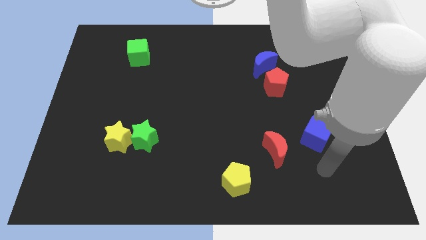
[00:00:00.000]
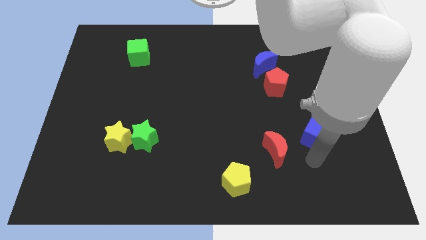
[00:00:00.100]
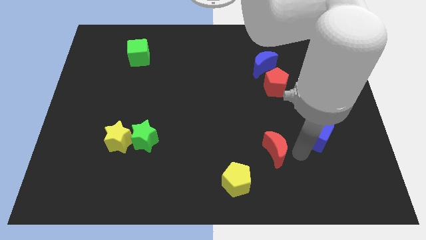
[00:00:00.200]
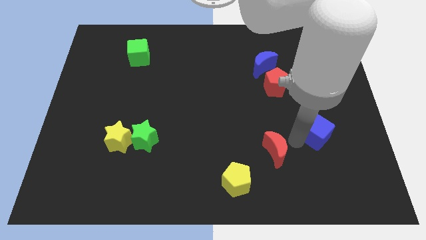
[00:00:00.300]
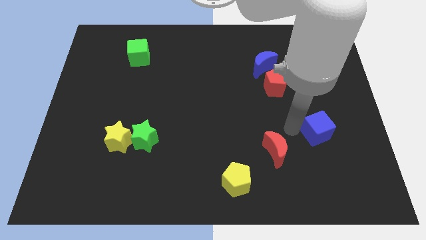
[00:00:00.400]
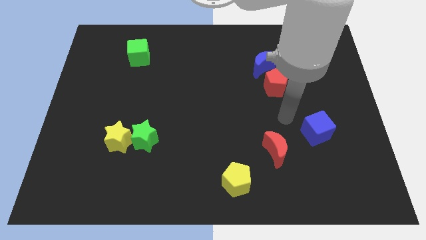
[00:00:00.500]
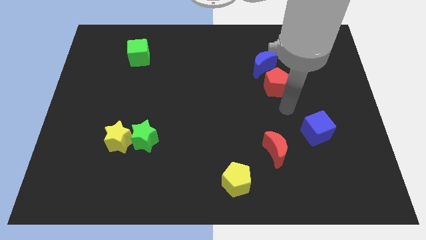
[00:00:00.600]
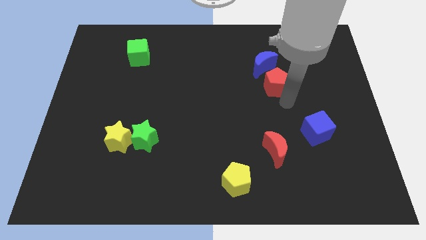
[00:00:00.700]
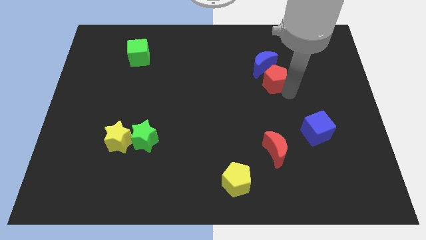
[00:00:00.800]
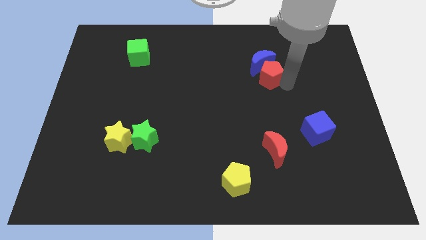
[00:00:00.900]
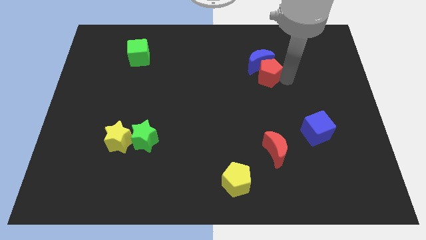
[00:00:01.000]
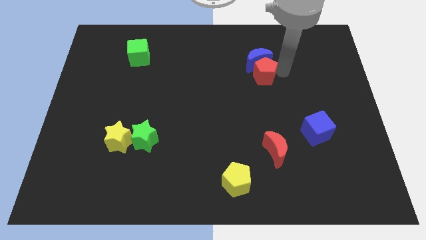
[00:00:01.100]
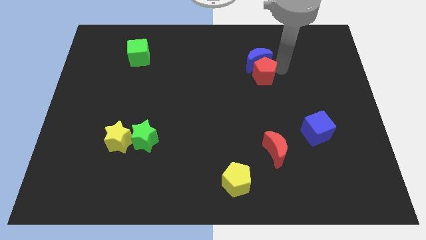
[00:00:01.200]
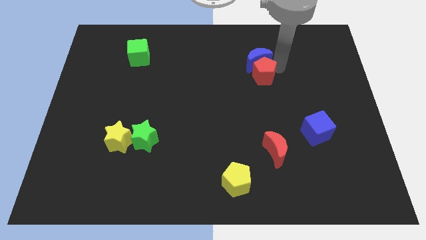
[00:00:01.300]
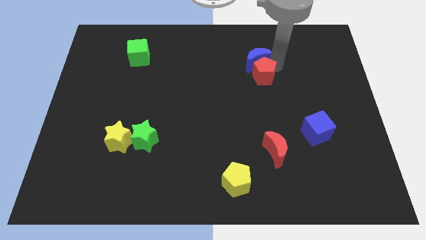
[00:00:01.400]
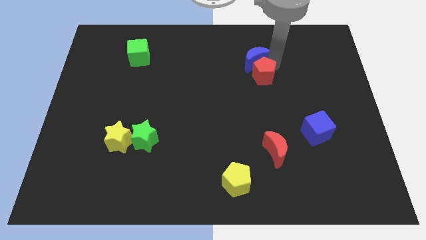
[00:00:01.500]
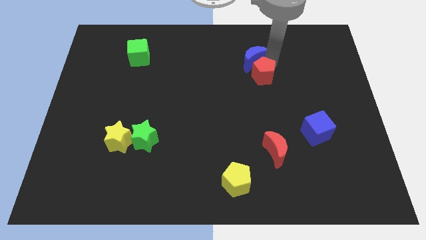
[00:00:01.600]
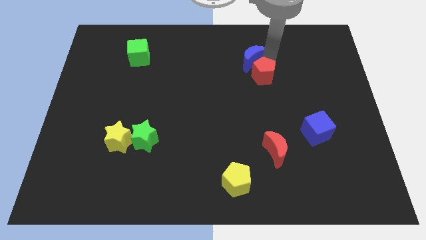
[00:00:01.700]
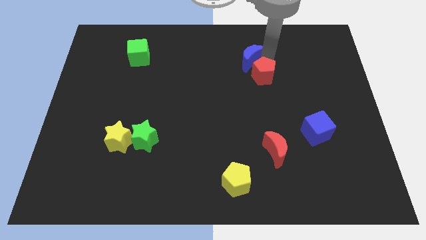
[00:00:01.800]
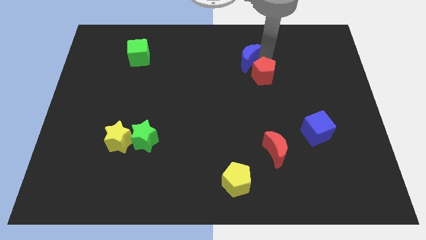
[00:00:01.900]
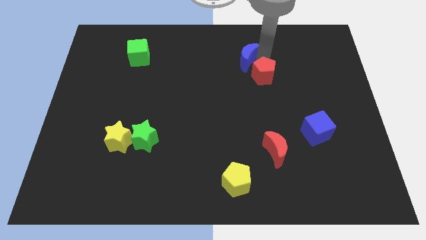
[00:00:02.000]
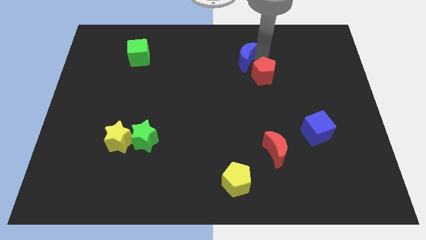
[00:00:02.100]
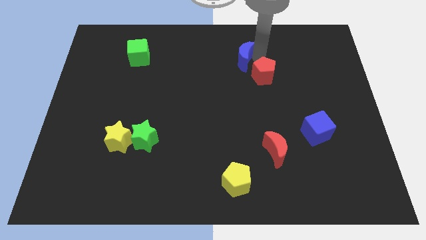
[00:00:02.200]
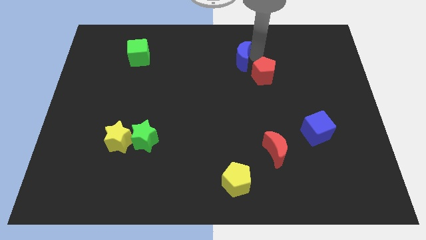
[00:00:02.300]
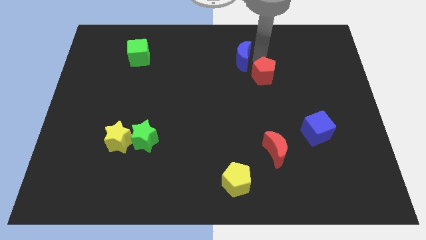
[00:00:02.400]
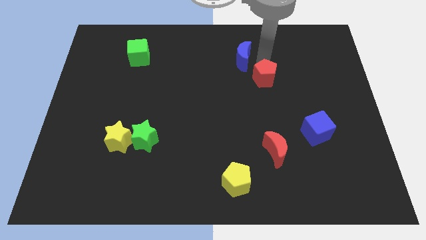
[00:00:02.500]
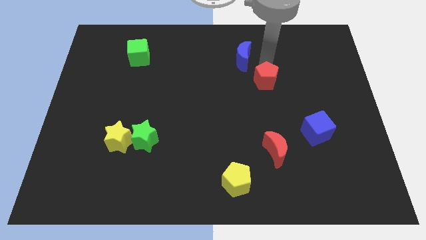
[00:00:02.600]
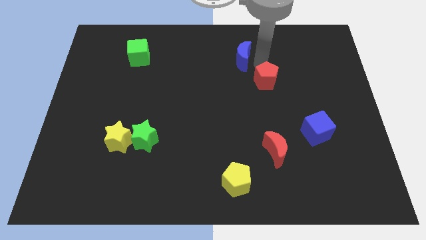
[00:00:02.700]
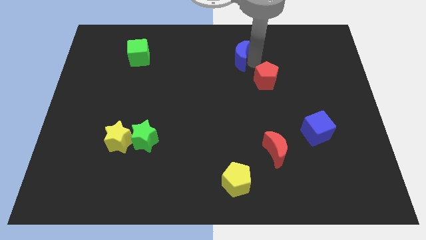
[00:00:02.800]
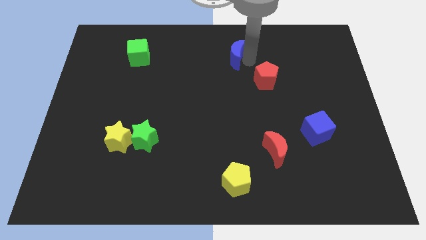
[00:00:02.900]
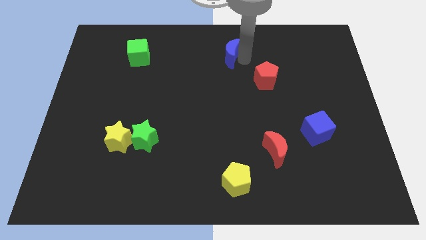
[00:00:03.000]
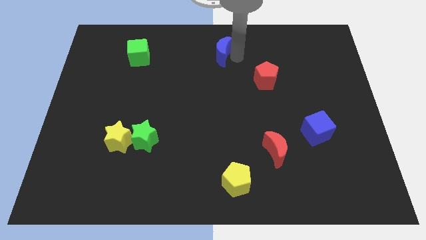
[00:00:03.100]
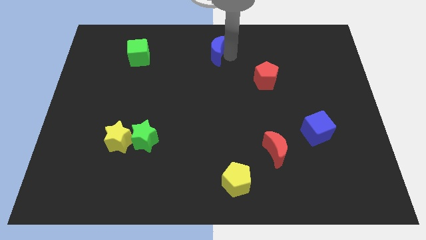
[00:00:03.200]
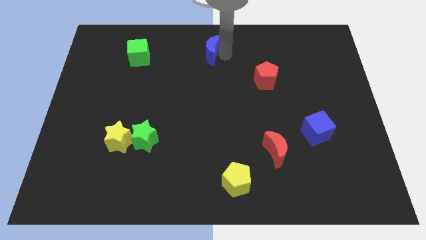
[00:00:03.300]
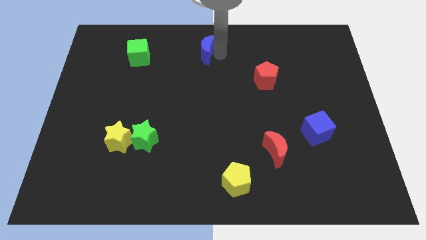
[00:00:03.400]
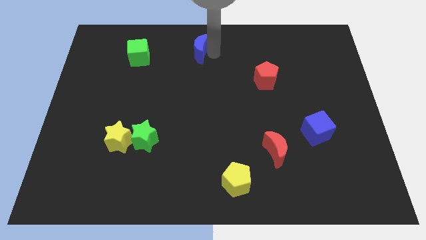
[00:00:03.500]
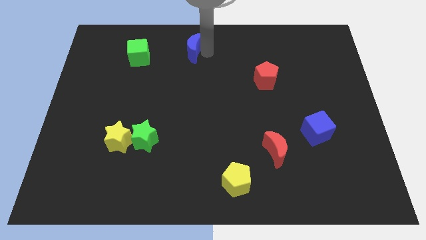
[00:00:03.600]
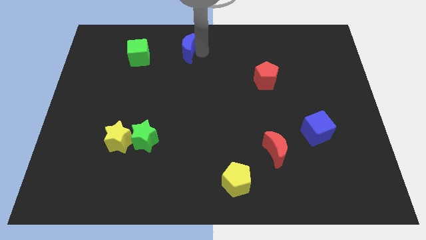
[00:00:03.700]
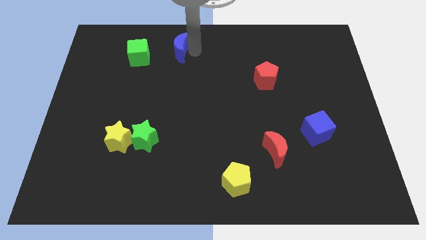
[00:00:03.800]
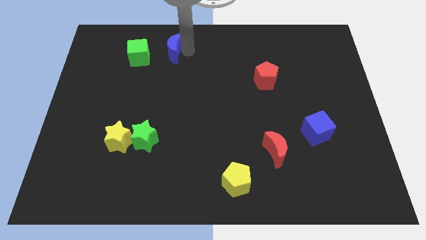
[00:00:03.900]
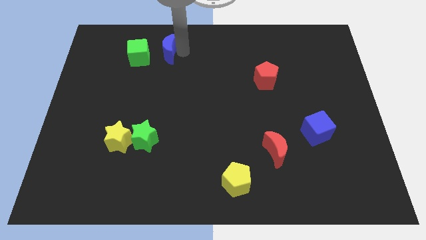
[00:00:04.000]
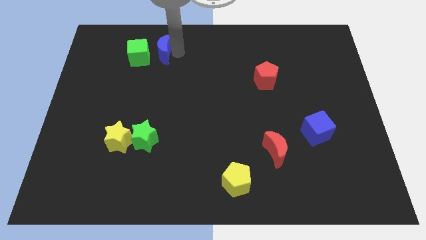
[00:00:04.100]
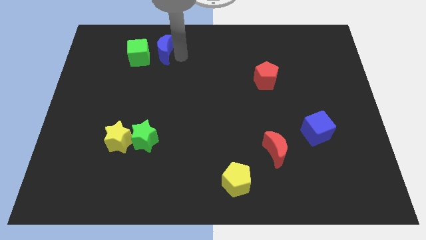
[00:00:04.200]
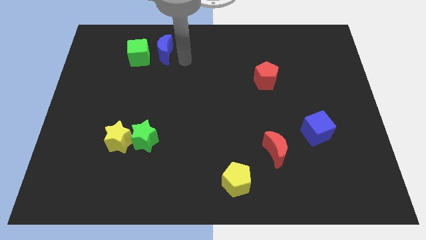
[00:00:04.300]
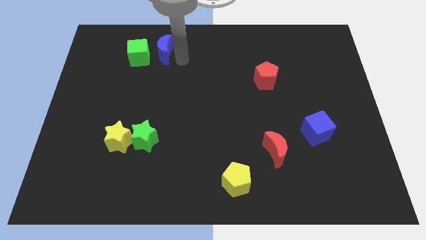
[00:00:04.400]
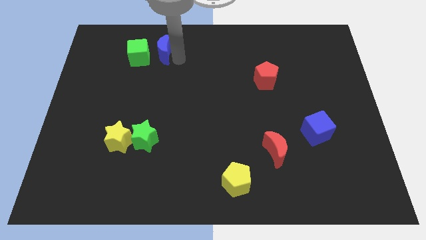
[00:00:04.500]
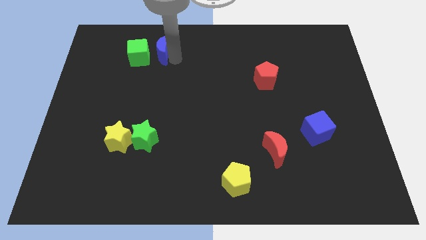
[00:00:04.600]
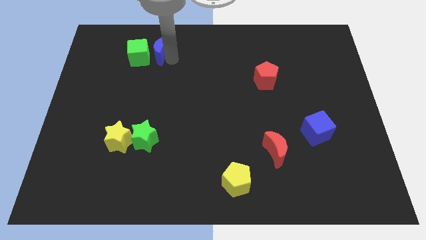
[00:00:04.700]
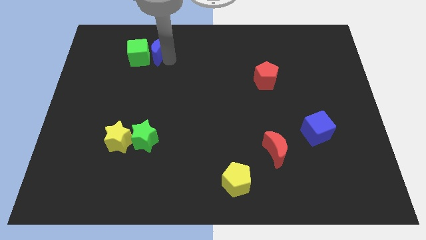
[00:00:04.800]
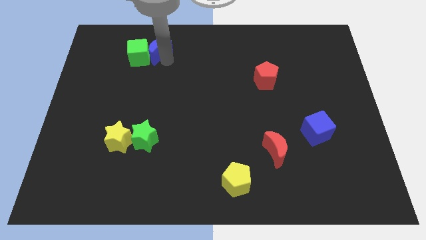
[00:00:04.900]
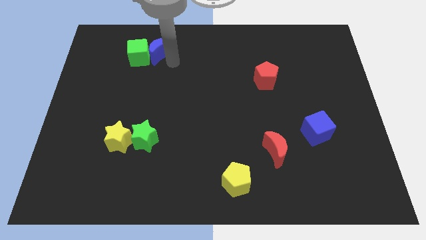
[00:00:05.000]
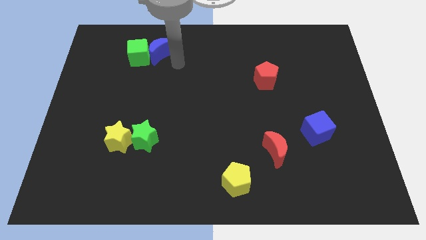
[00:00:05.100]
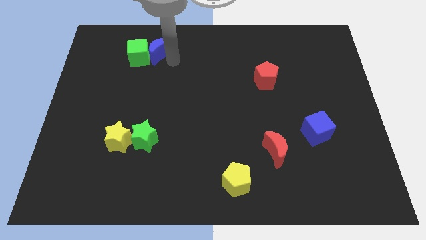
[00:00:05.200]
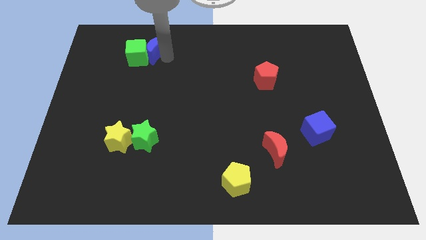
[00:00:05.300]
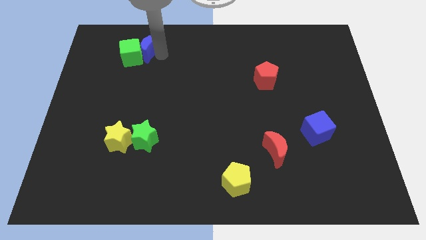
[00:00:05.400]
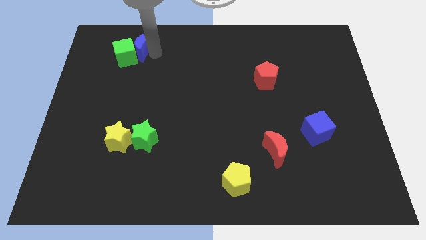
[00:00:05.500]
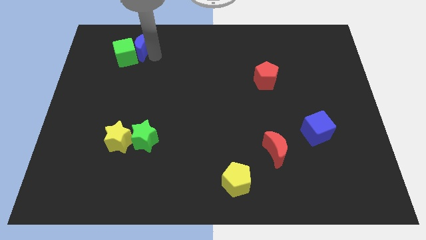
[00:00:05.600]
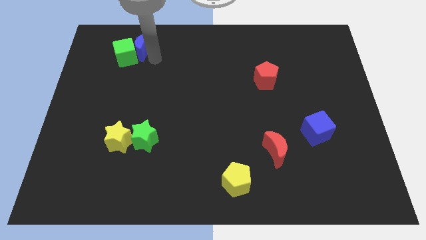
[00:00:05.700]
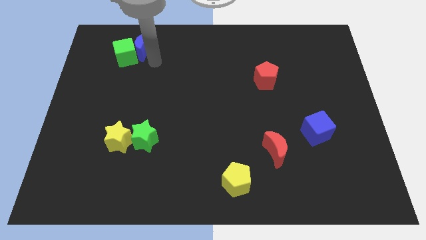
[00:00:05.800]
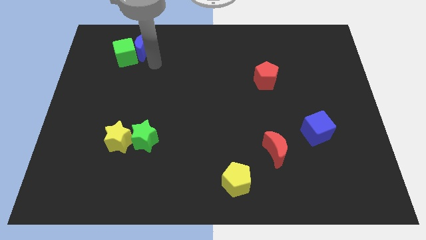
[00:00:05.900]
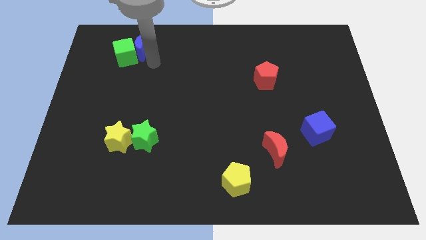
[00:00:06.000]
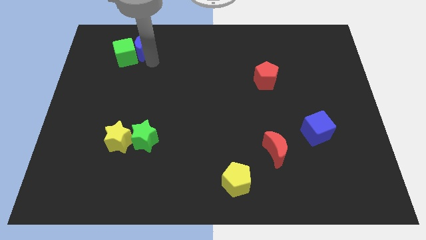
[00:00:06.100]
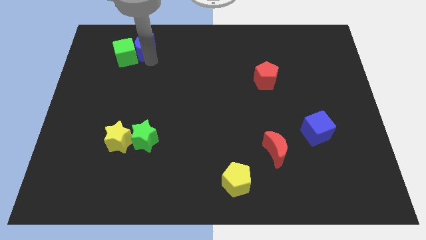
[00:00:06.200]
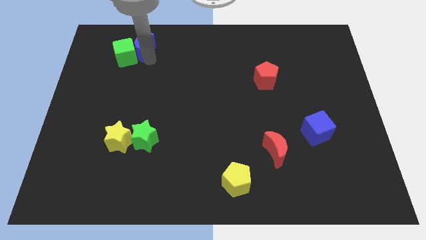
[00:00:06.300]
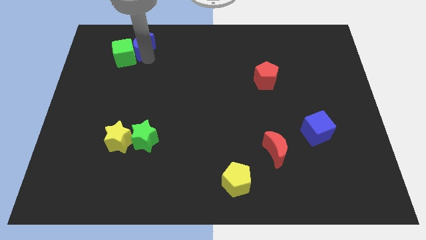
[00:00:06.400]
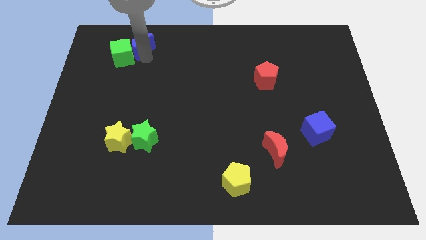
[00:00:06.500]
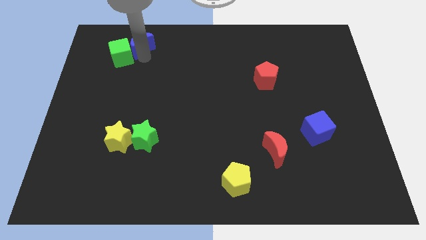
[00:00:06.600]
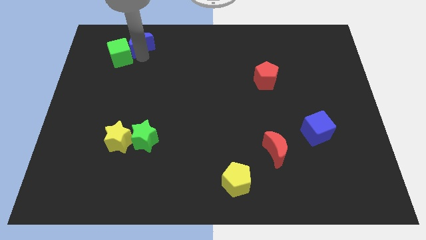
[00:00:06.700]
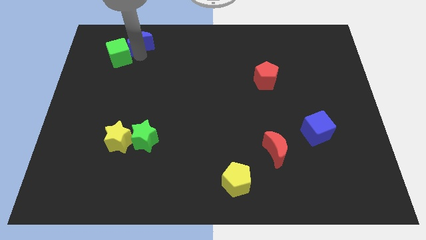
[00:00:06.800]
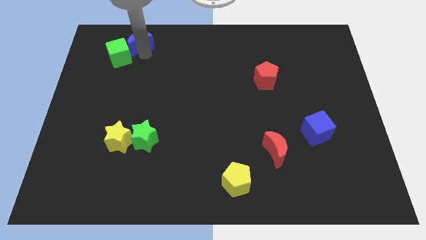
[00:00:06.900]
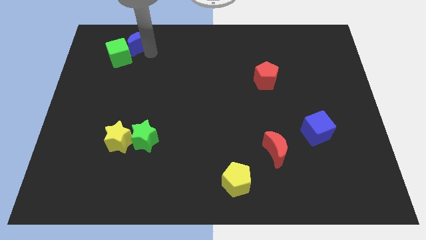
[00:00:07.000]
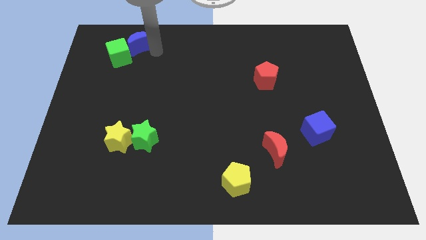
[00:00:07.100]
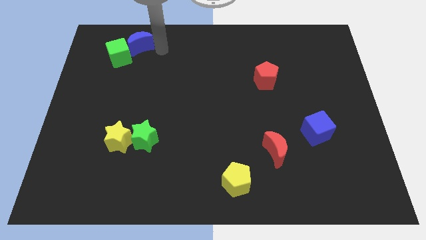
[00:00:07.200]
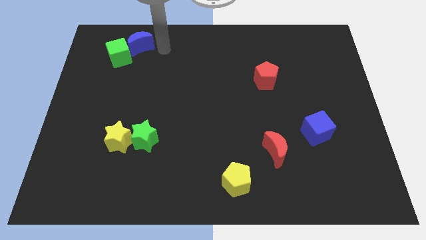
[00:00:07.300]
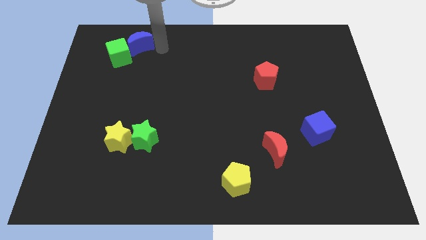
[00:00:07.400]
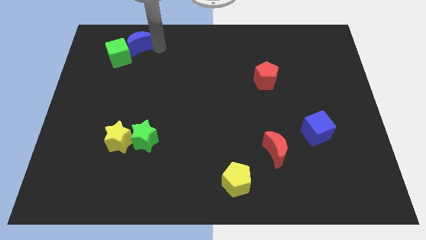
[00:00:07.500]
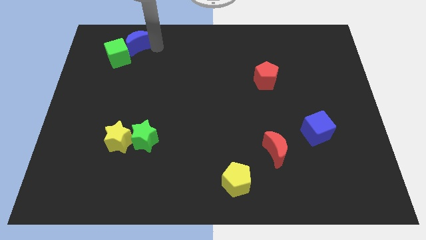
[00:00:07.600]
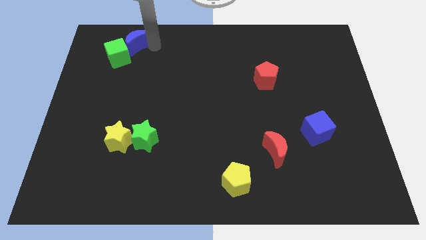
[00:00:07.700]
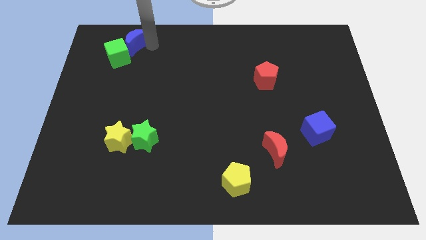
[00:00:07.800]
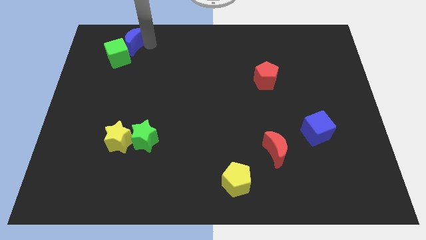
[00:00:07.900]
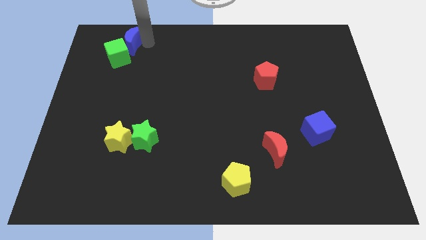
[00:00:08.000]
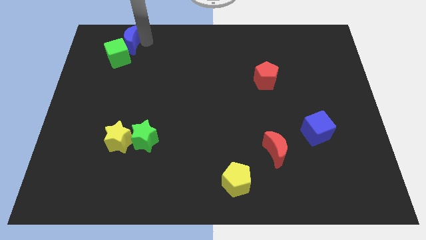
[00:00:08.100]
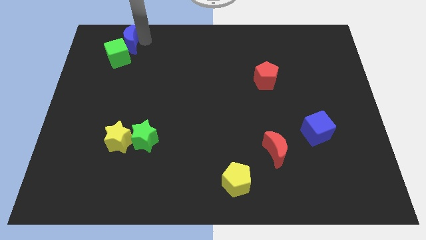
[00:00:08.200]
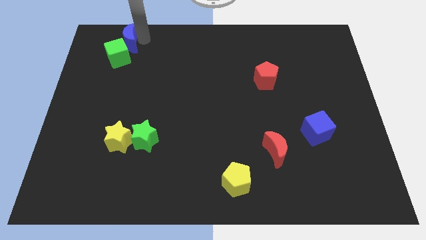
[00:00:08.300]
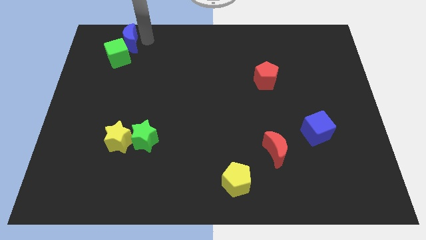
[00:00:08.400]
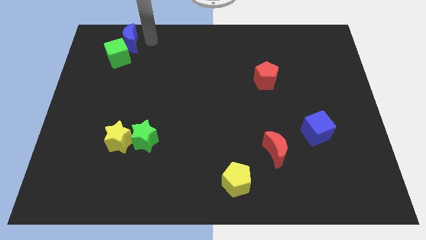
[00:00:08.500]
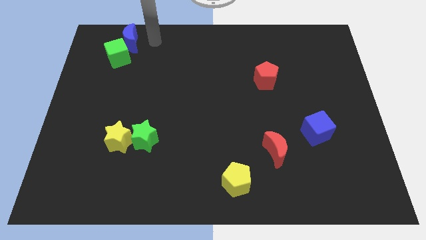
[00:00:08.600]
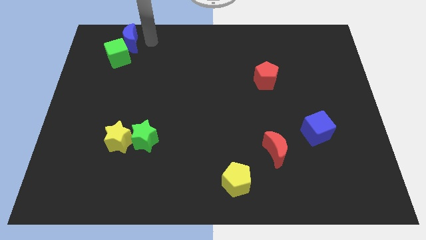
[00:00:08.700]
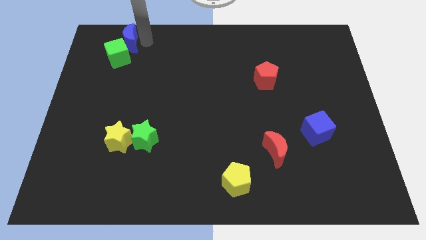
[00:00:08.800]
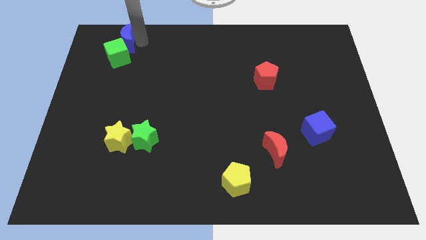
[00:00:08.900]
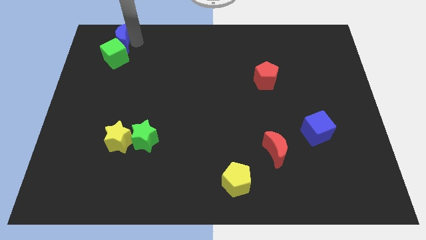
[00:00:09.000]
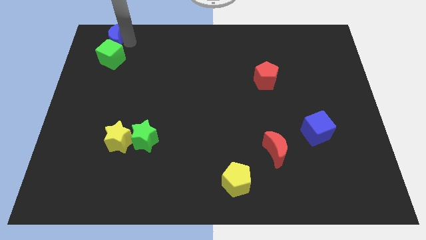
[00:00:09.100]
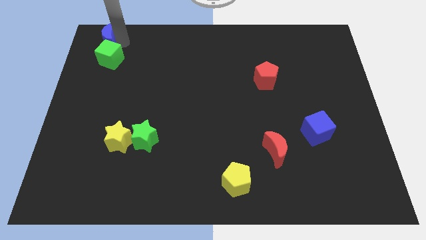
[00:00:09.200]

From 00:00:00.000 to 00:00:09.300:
move the blue moon to the top left corner
